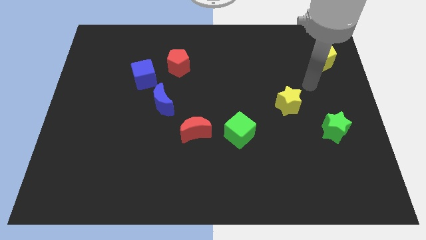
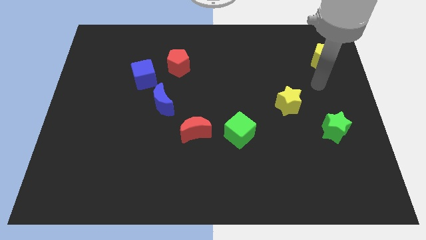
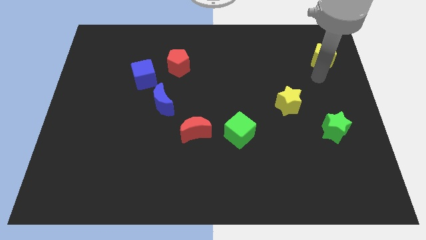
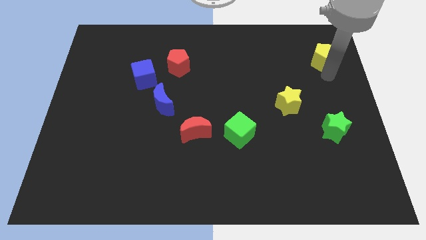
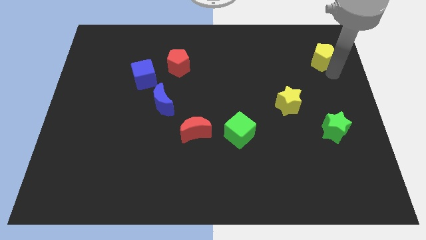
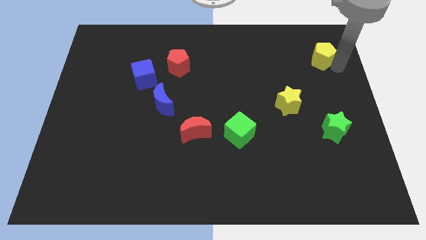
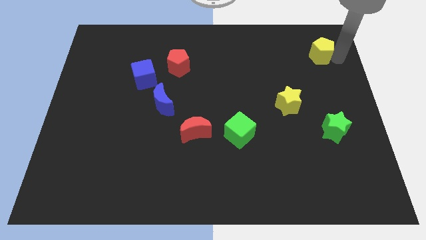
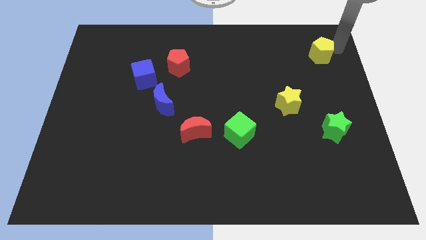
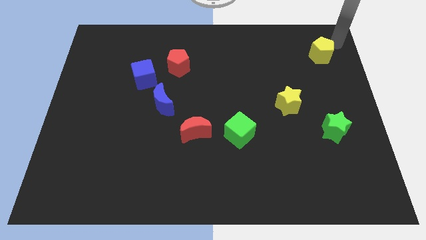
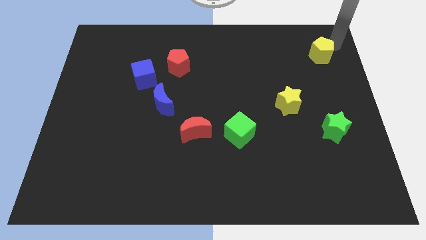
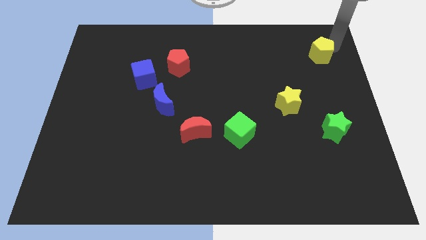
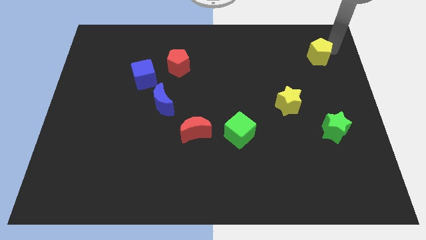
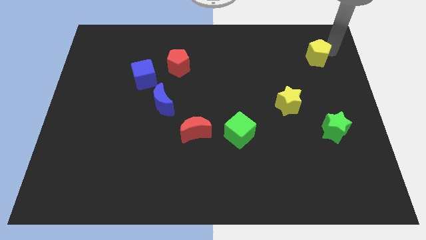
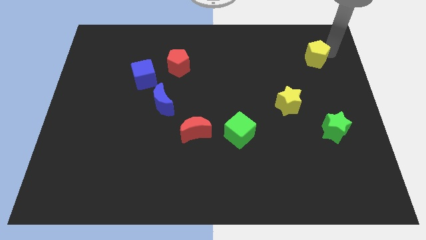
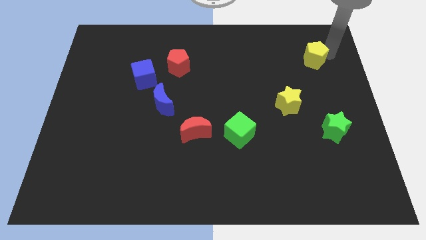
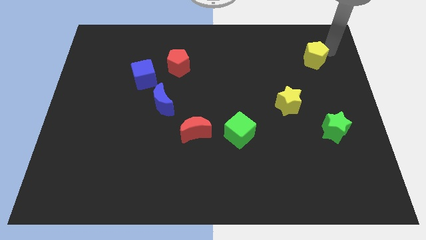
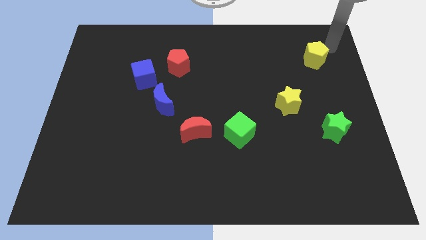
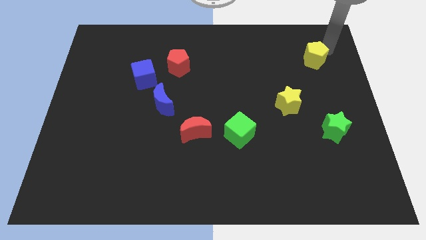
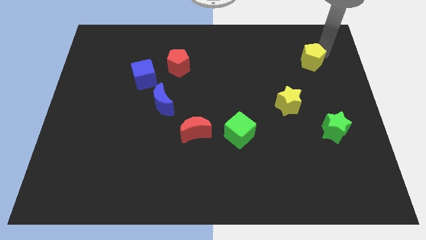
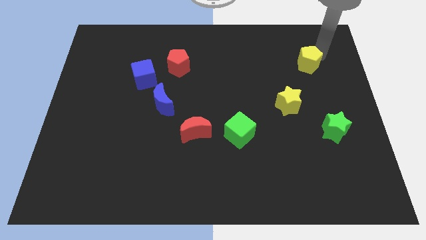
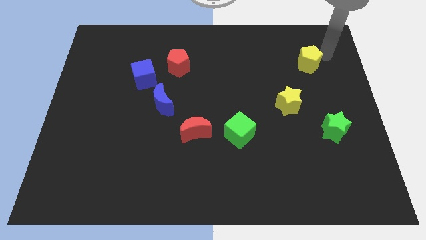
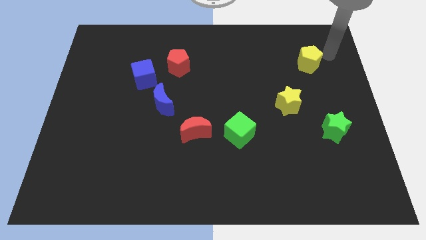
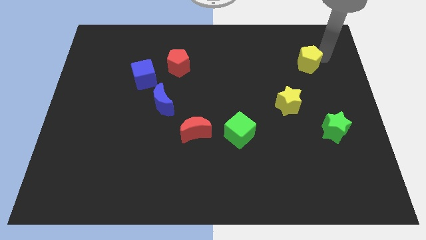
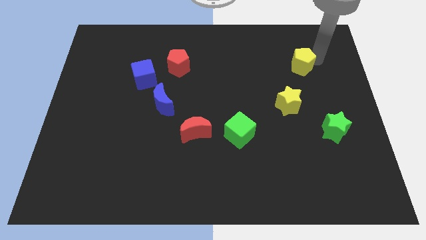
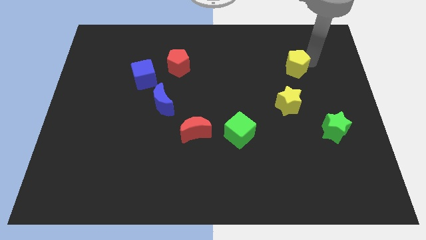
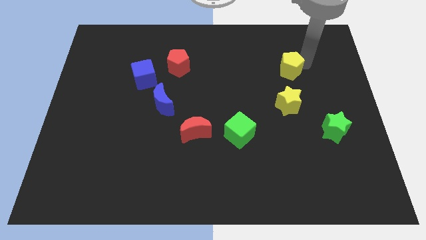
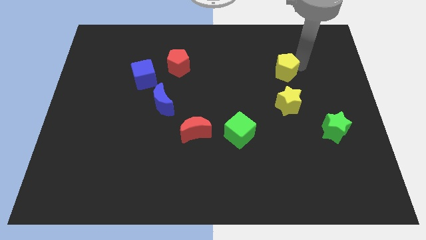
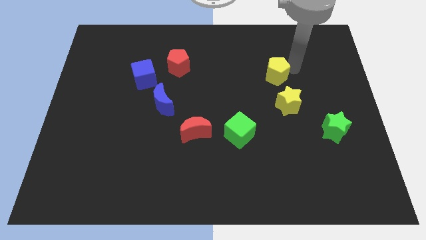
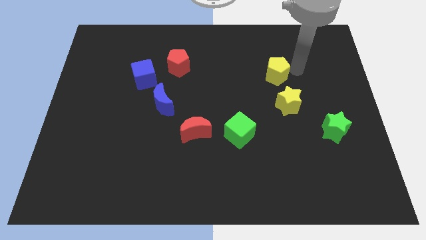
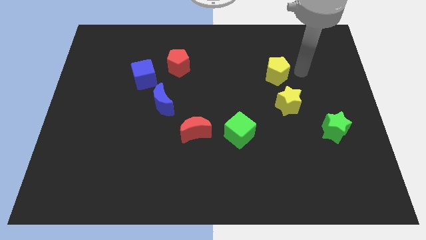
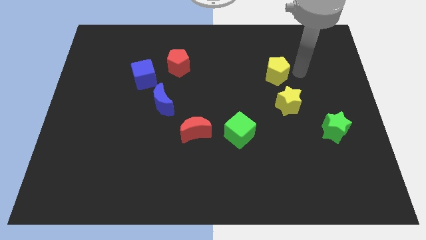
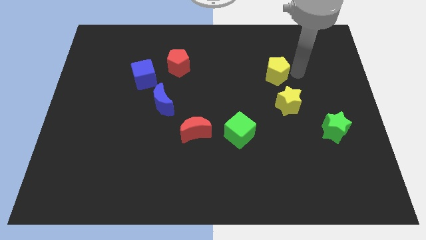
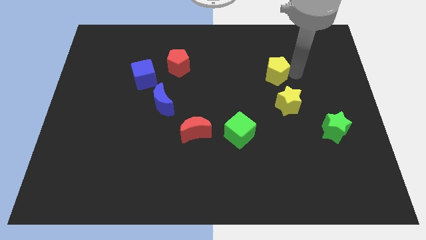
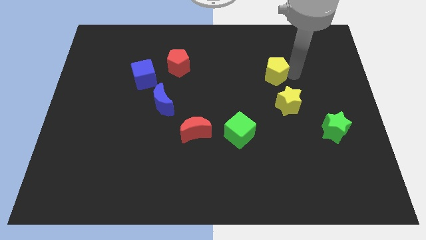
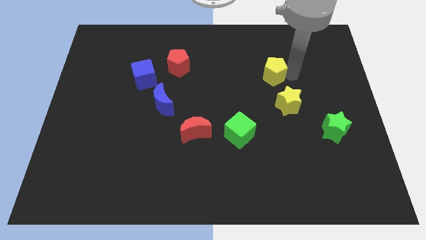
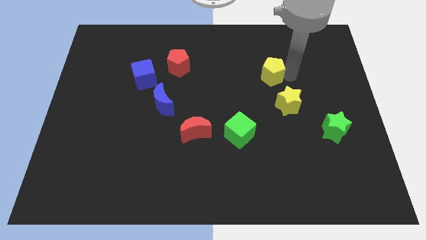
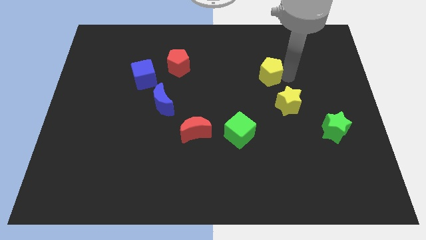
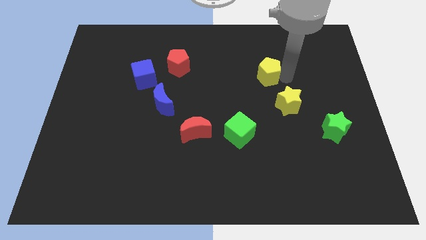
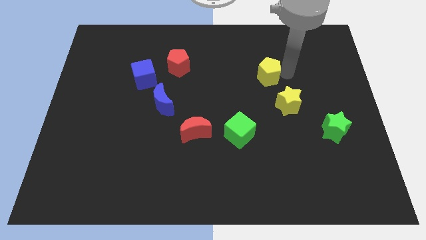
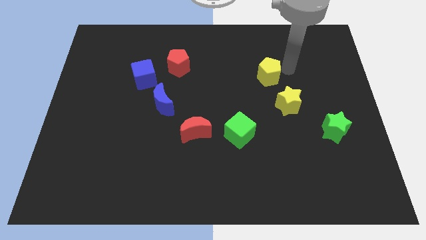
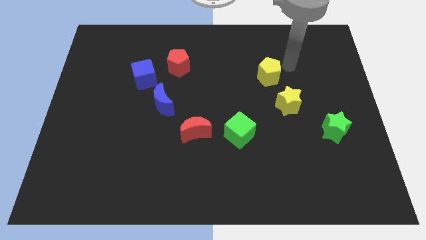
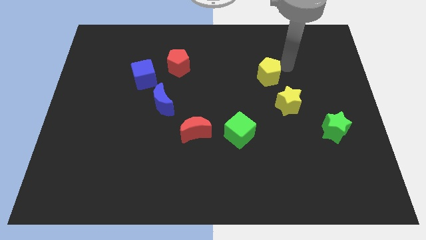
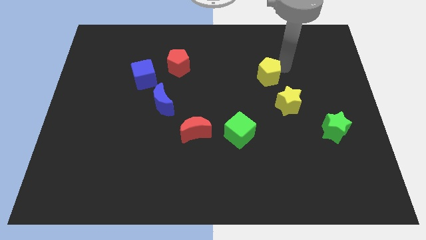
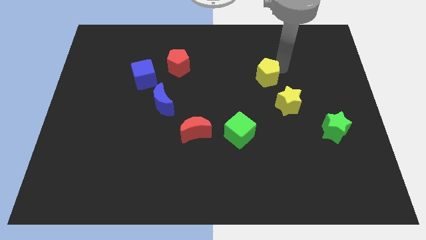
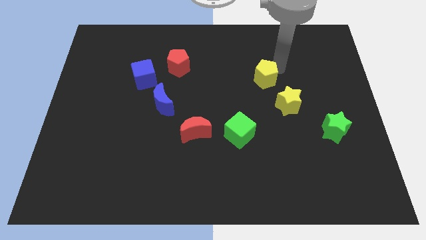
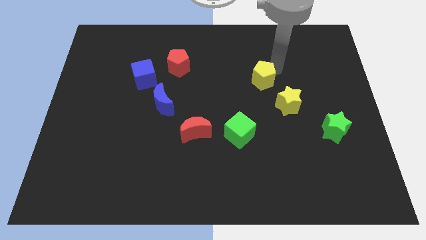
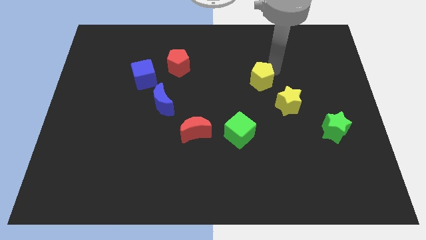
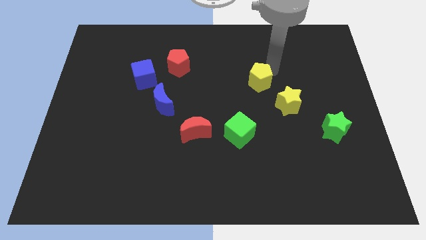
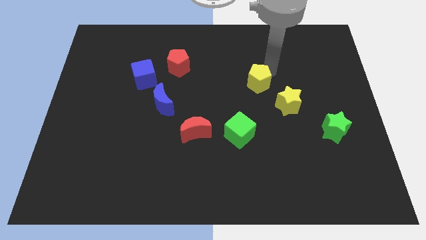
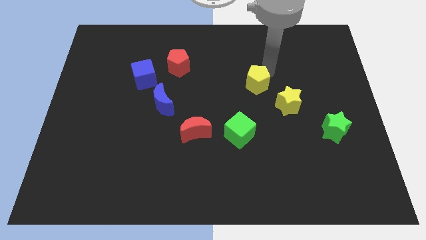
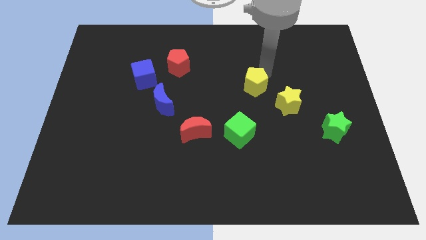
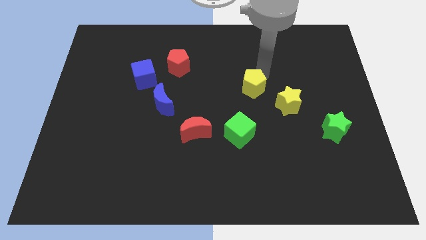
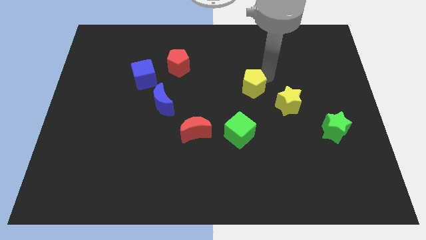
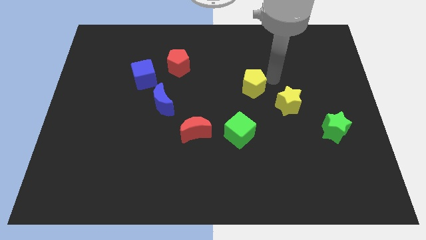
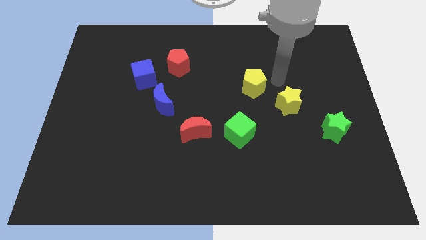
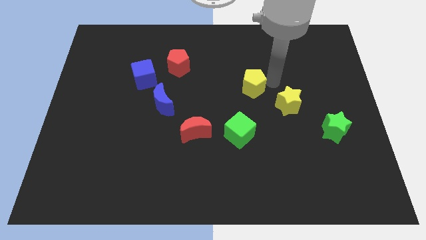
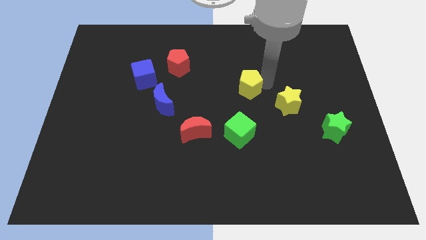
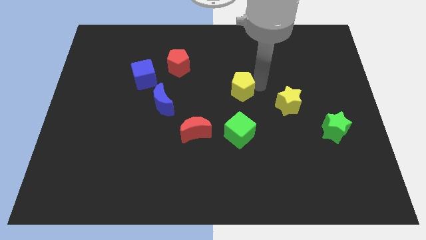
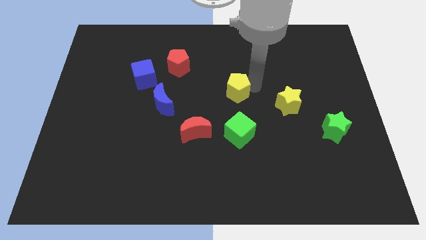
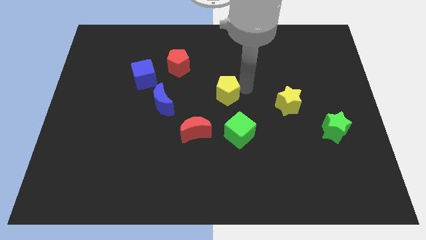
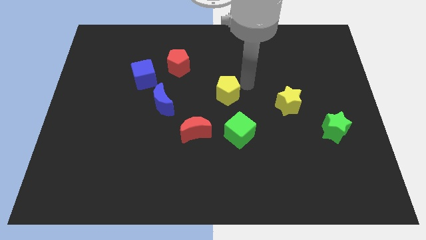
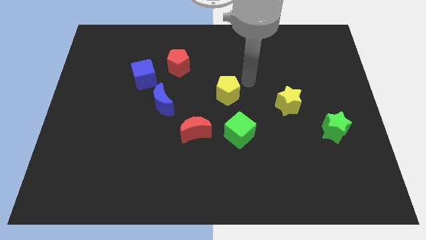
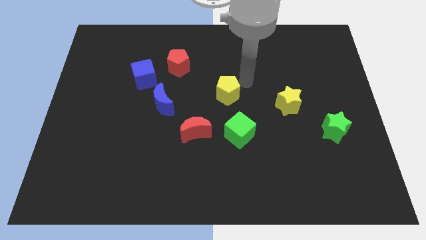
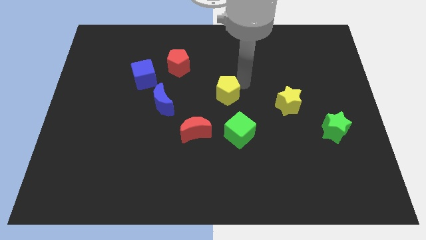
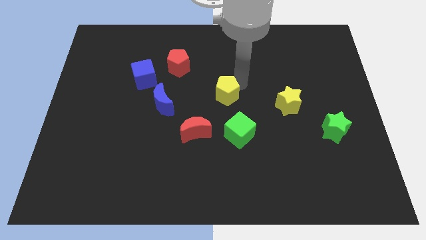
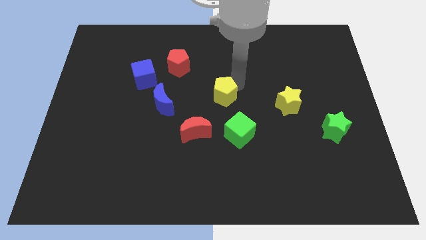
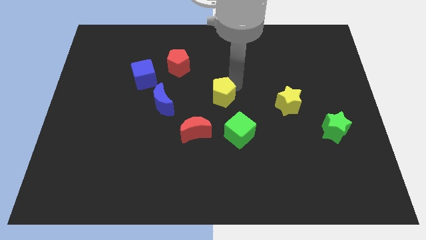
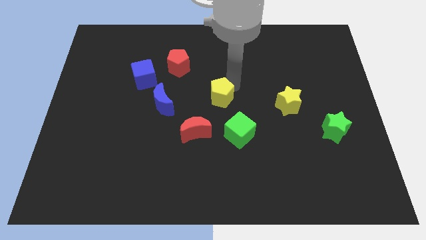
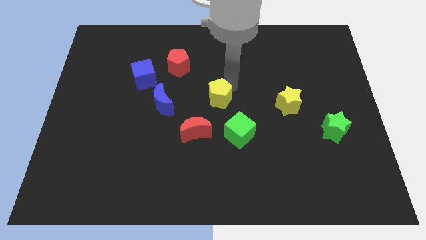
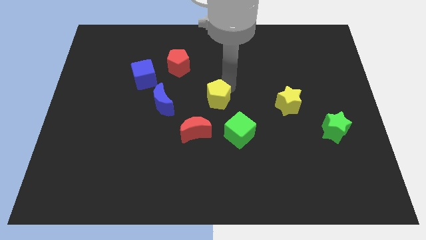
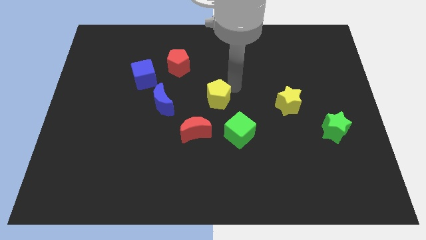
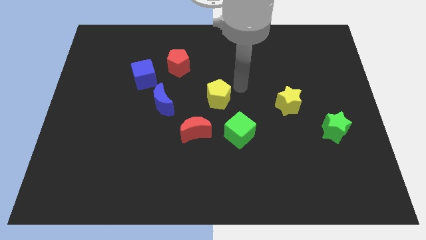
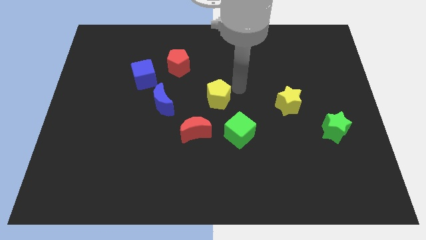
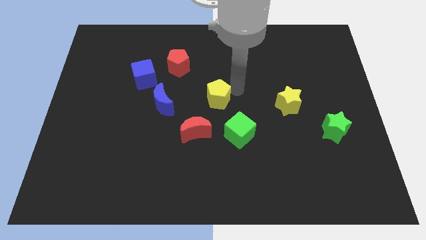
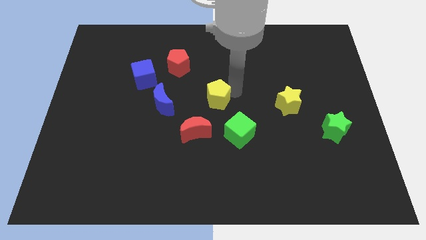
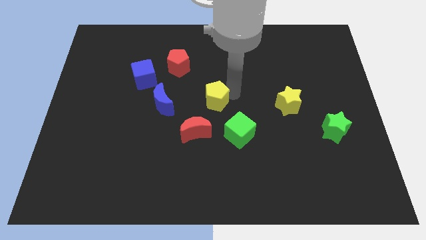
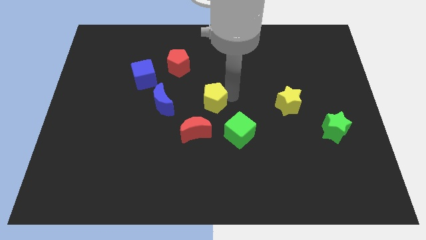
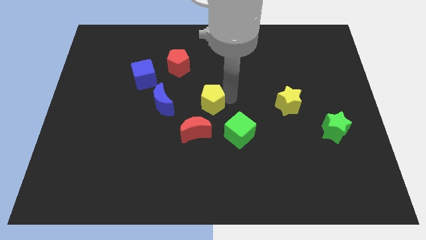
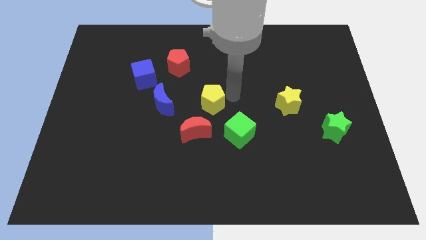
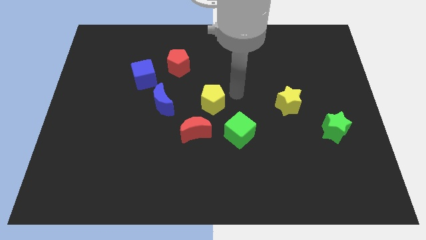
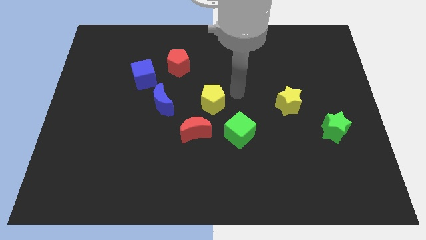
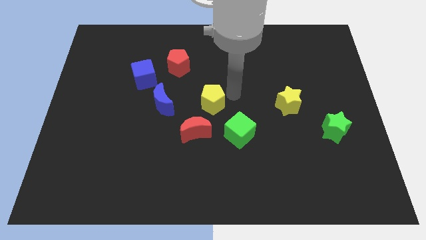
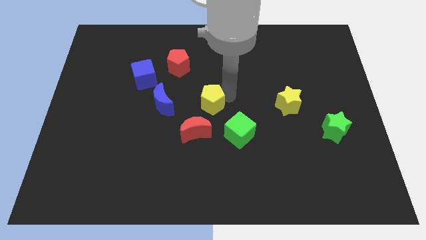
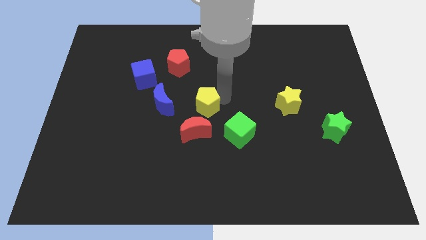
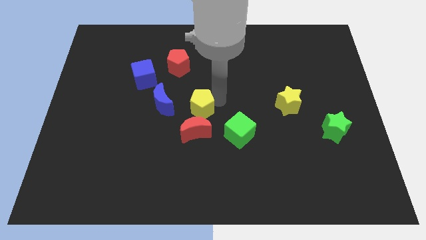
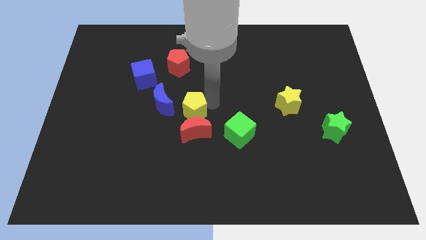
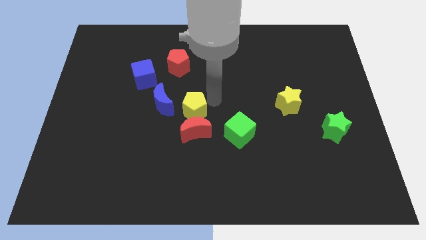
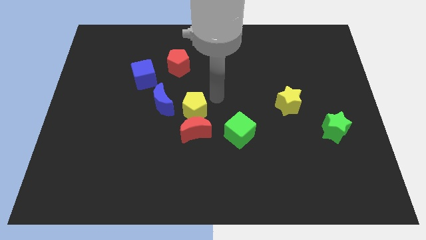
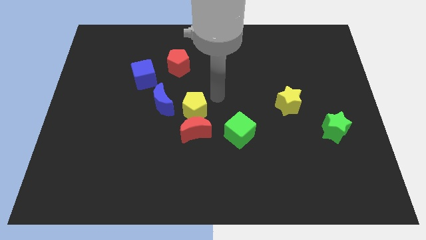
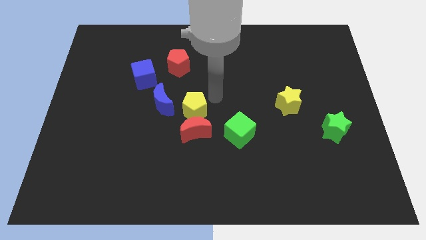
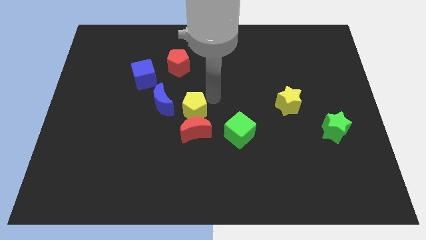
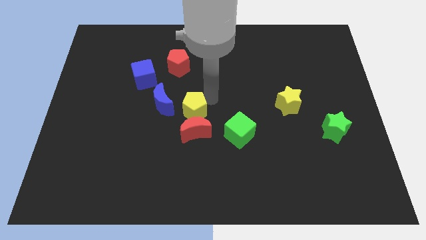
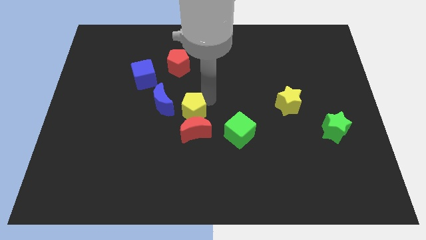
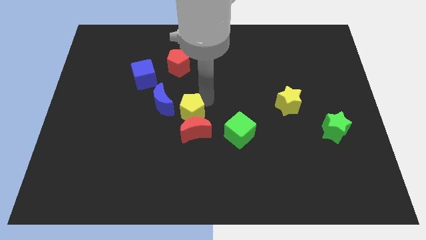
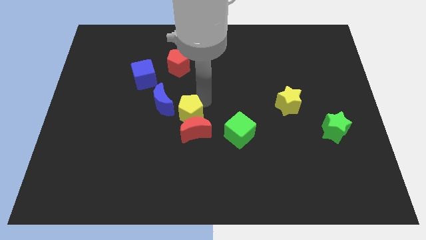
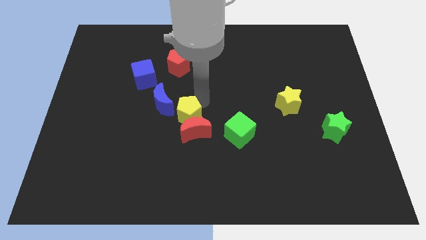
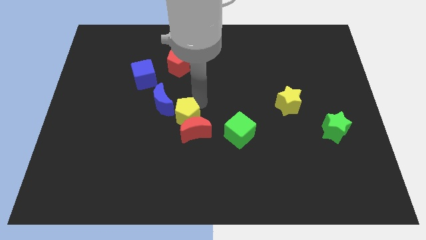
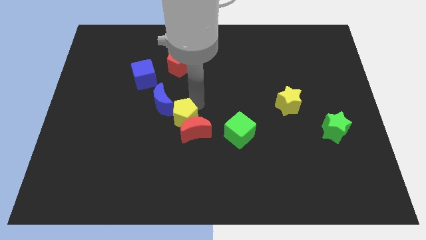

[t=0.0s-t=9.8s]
move the yellow pentagon just left of the red moon
